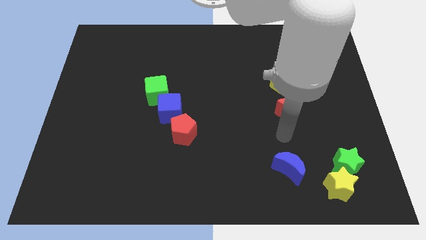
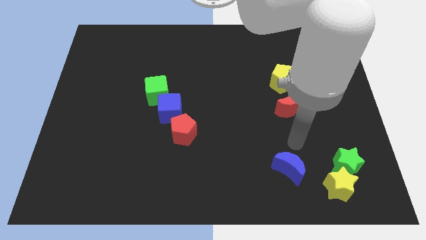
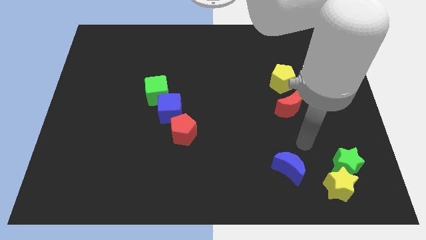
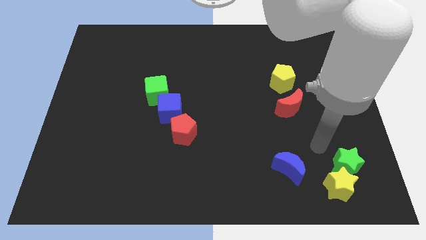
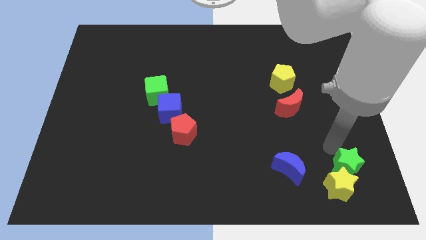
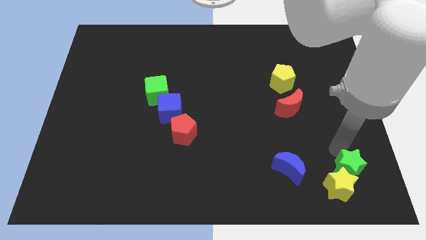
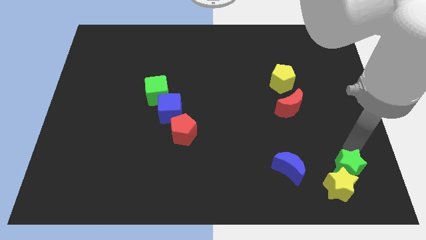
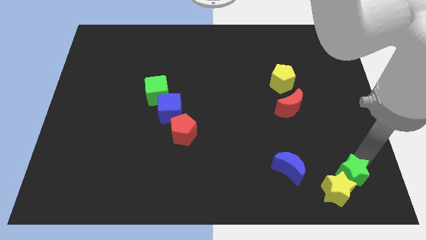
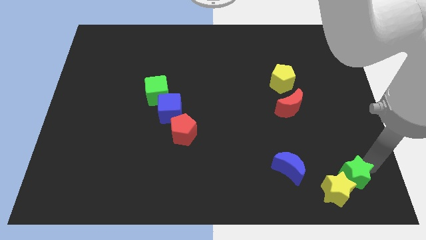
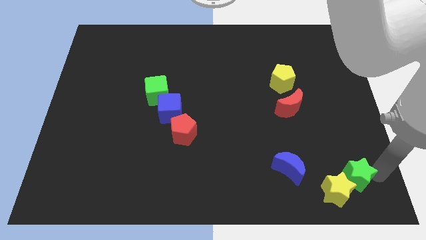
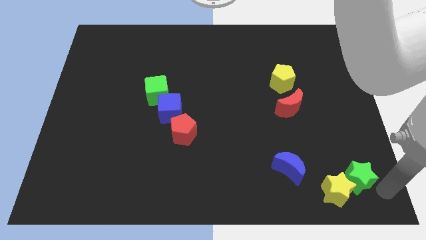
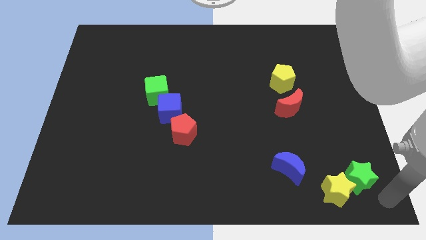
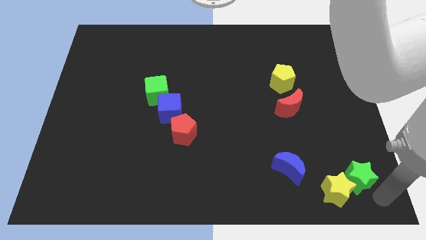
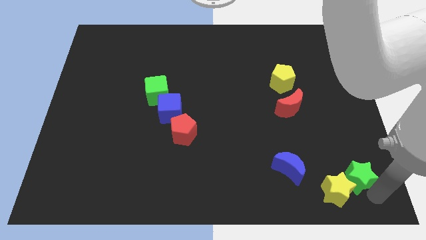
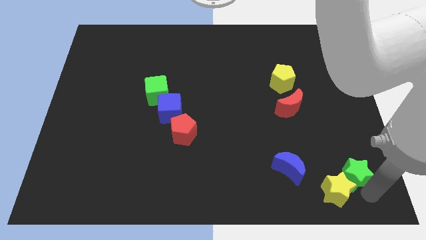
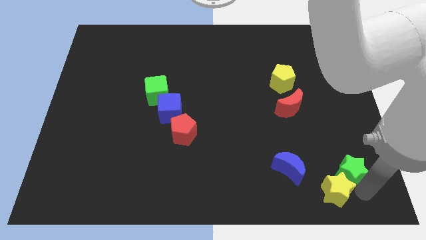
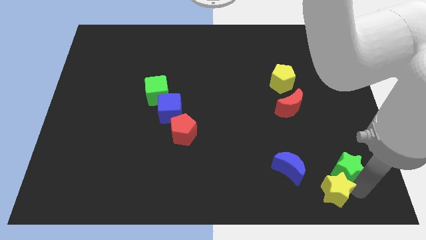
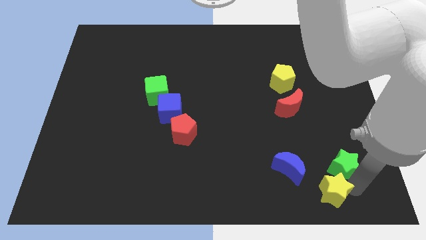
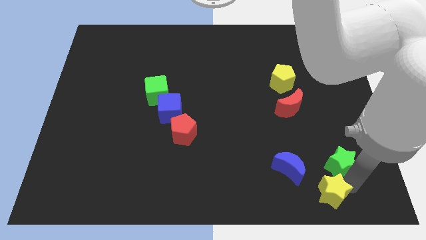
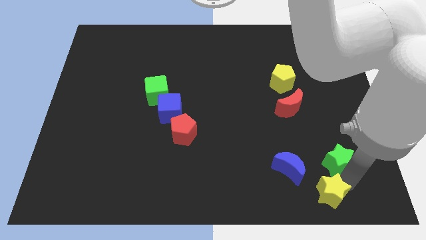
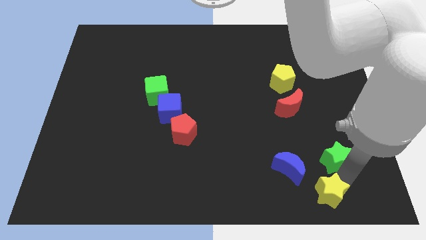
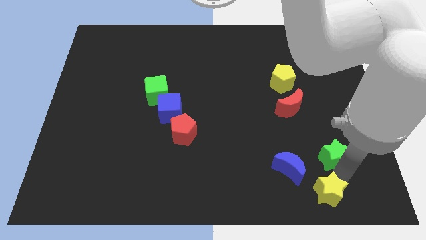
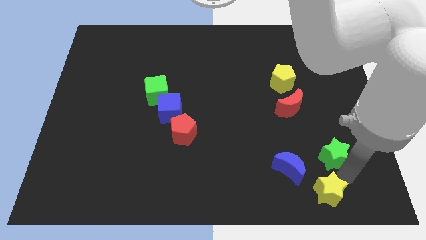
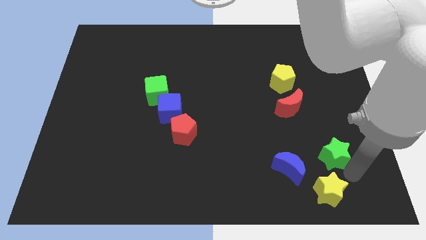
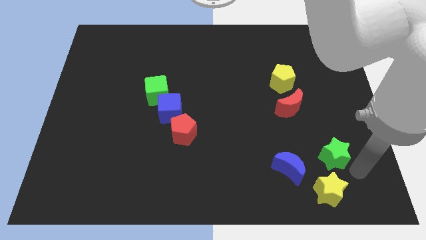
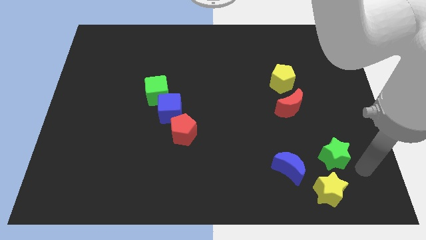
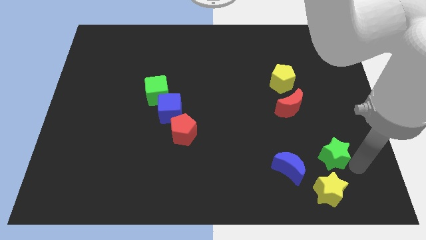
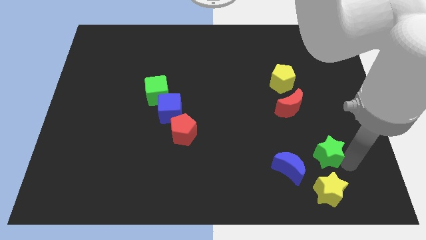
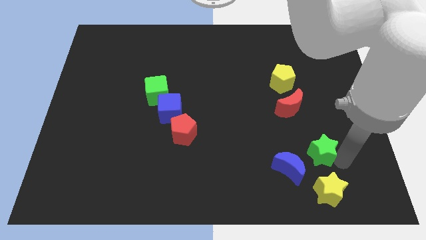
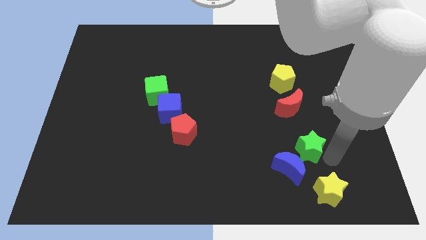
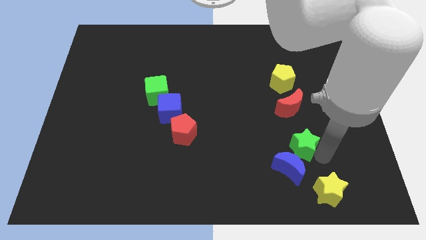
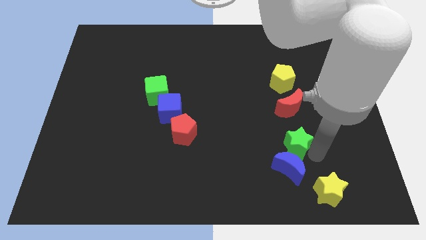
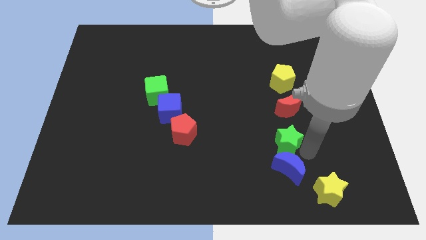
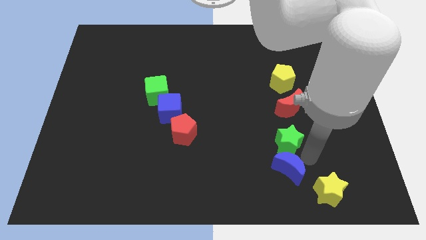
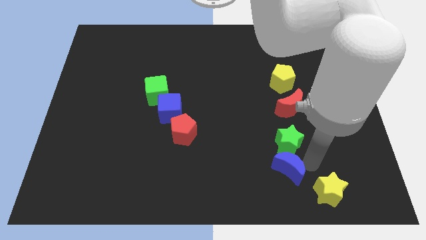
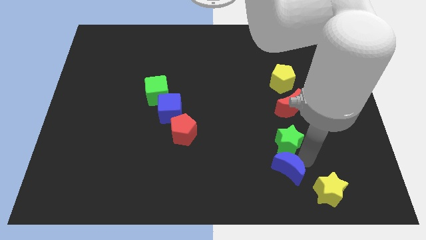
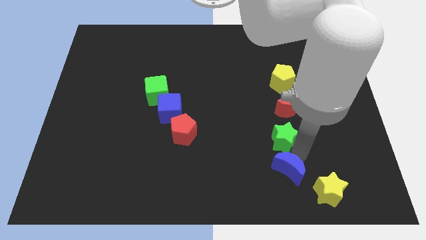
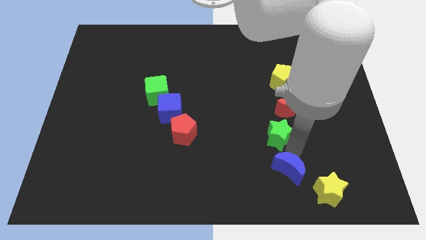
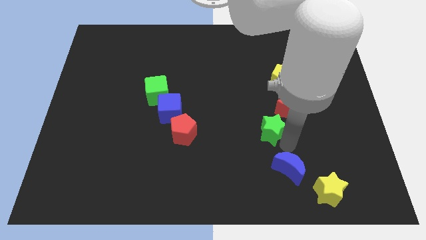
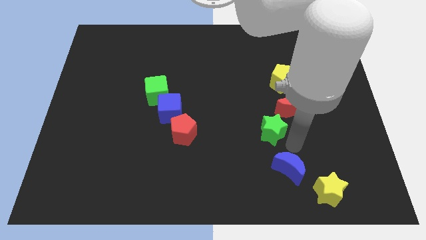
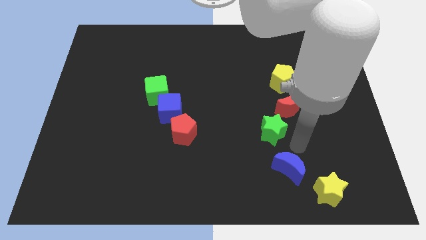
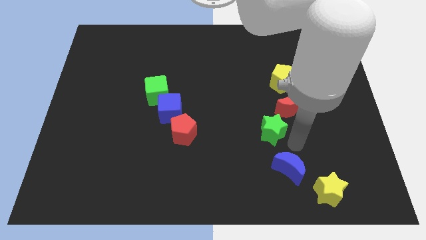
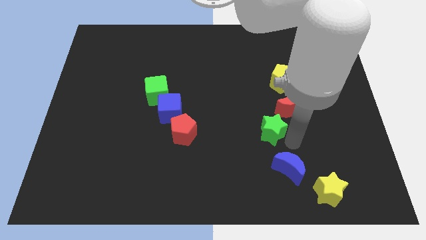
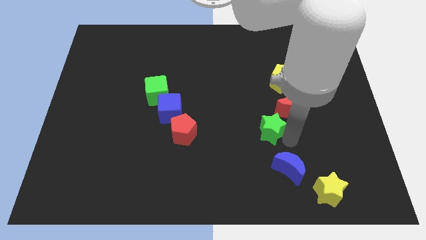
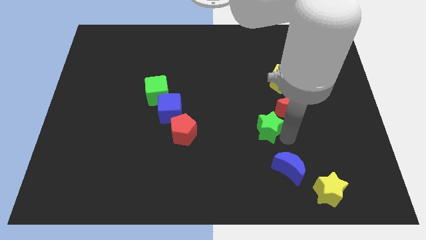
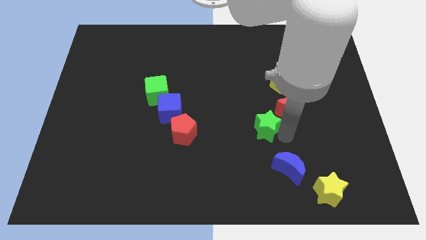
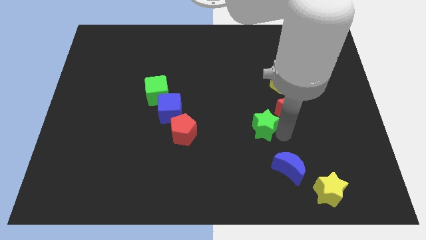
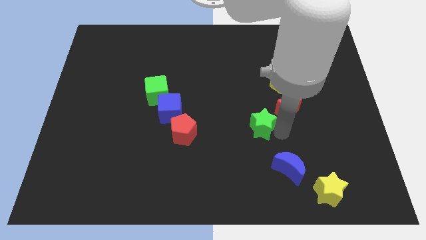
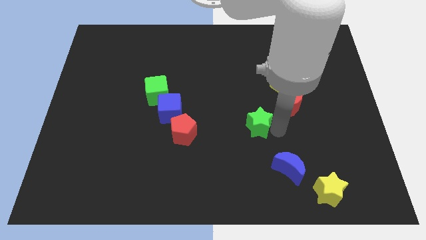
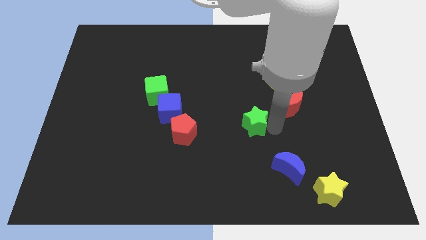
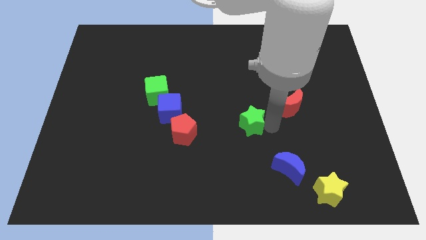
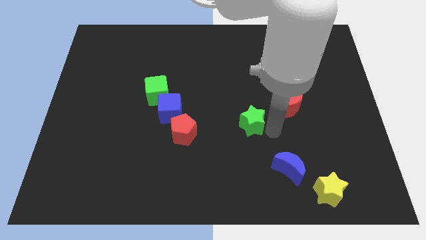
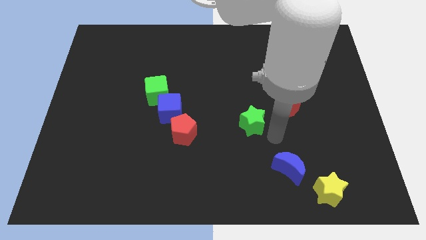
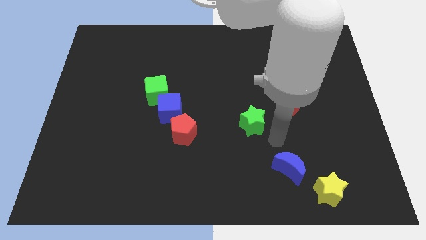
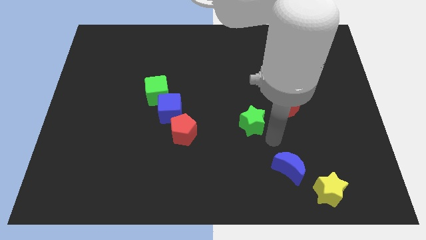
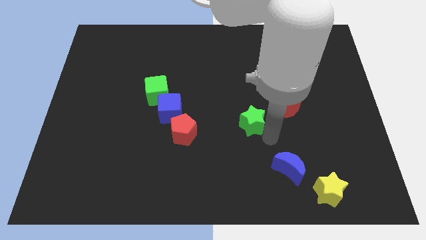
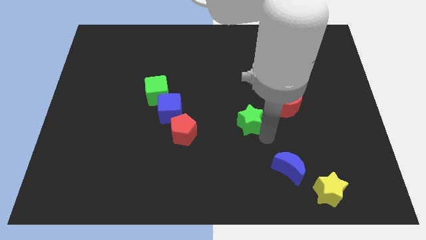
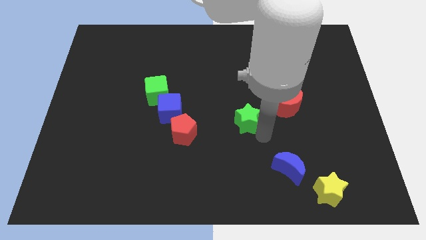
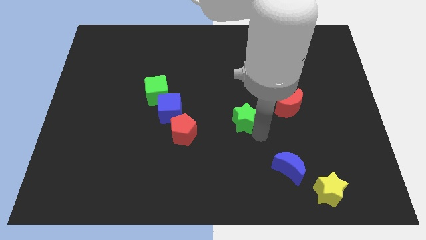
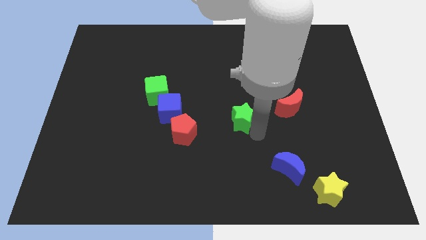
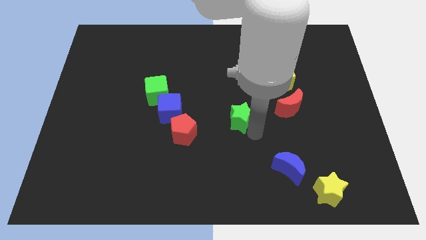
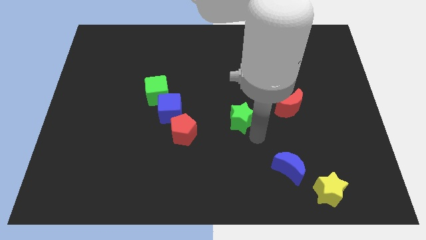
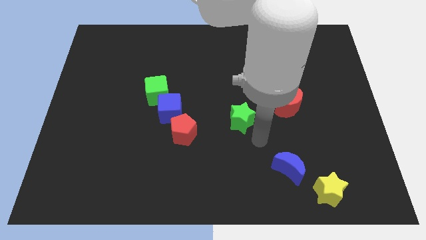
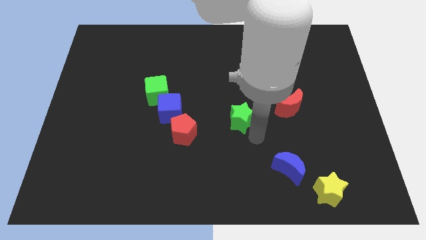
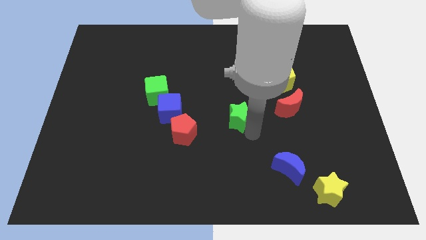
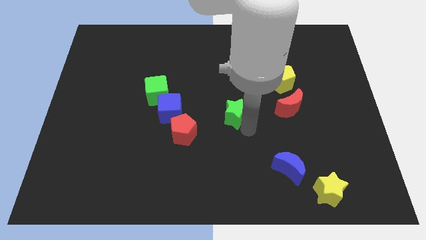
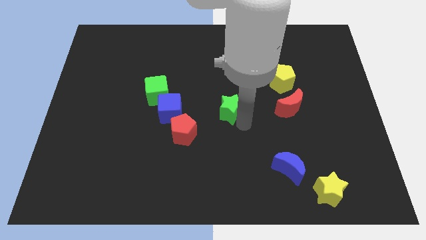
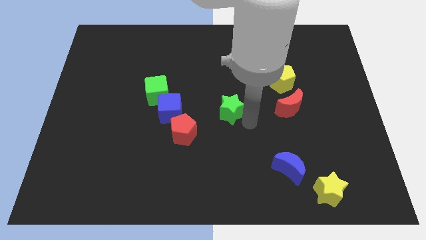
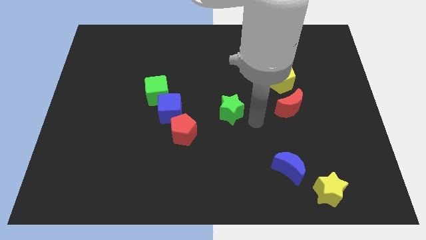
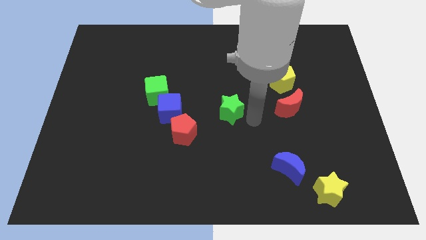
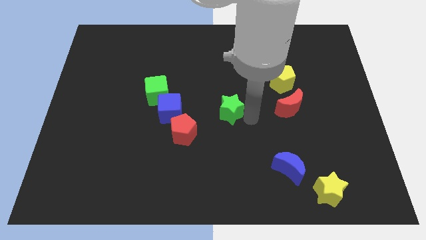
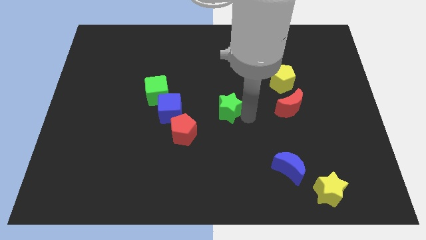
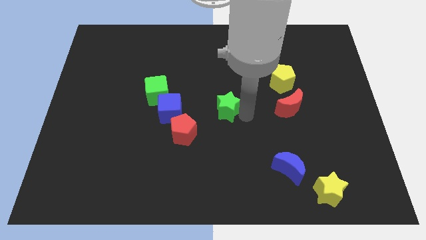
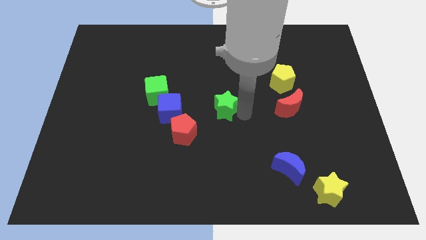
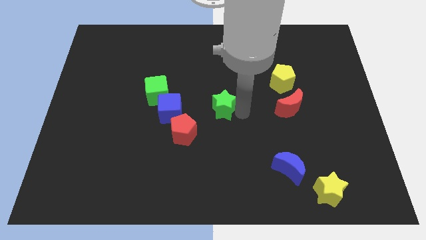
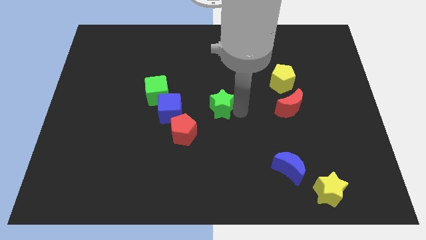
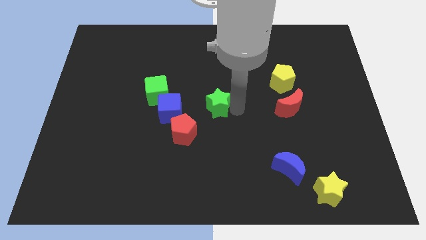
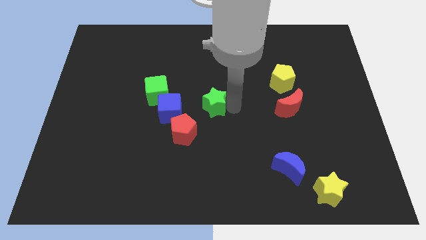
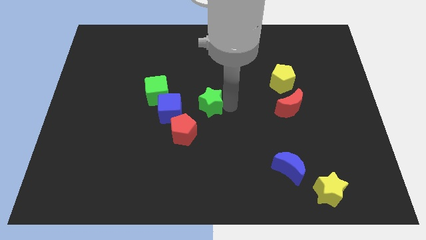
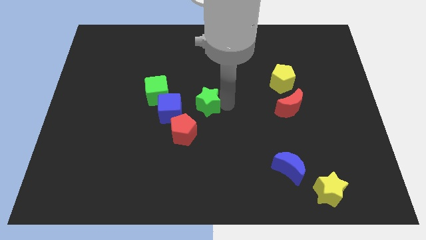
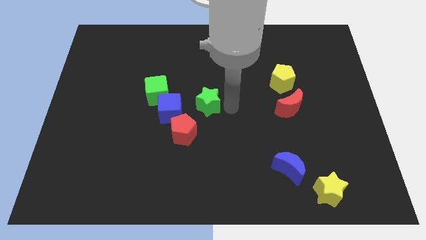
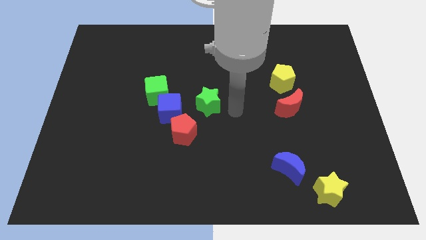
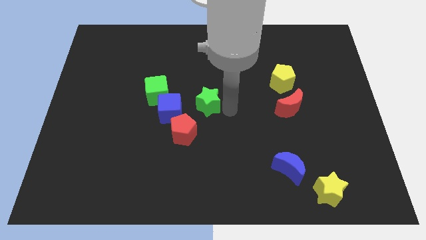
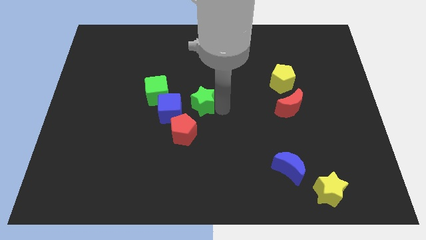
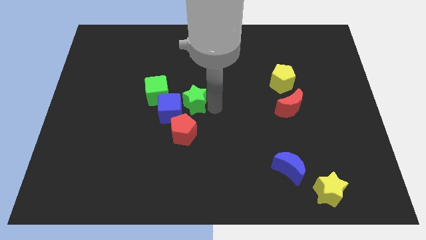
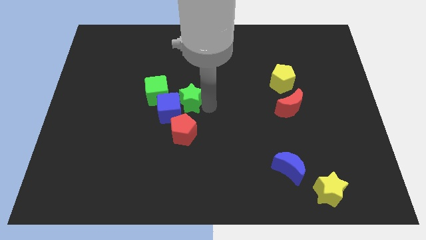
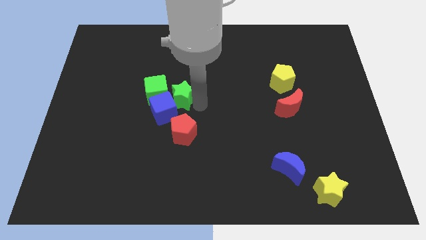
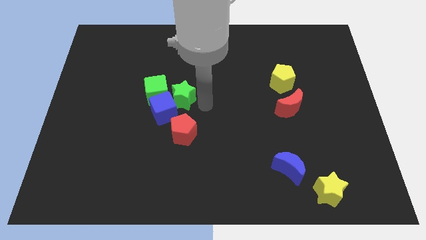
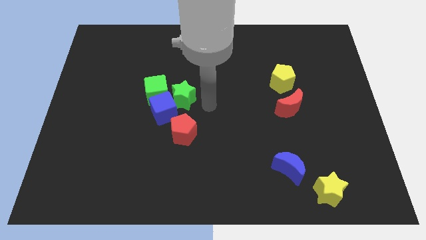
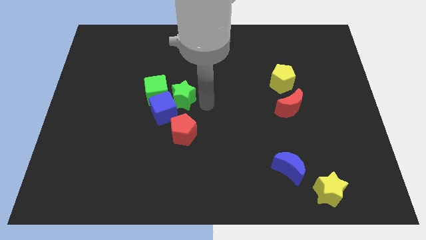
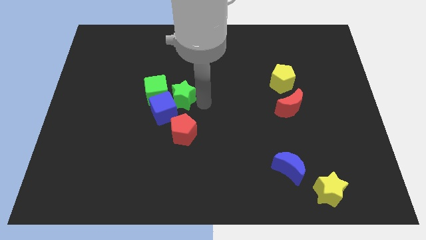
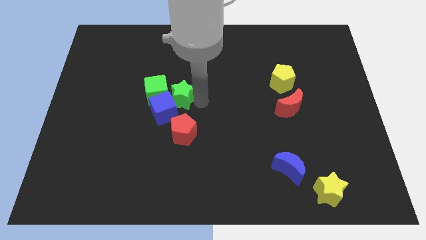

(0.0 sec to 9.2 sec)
put the green star next to the green cube
